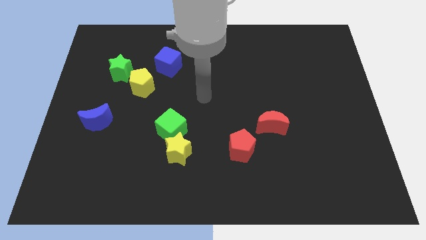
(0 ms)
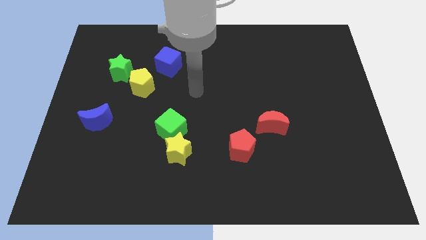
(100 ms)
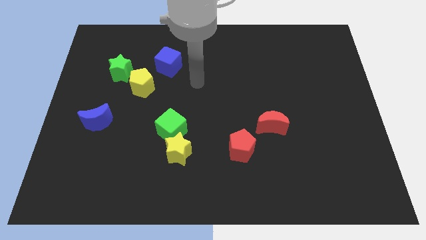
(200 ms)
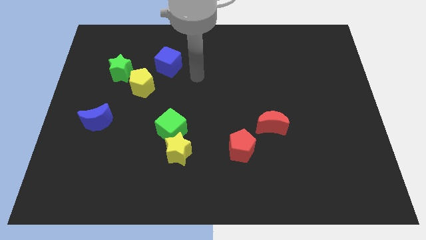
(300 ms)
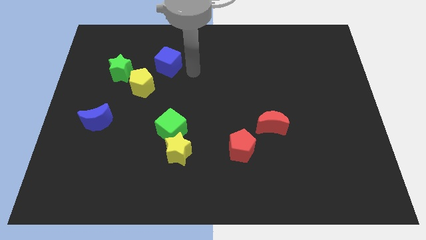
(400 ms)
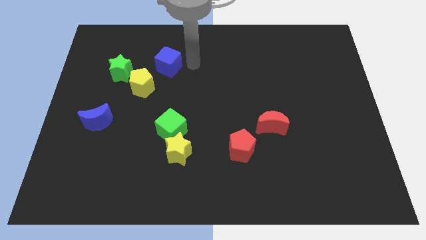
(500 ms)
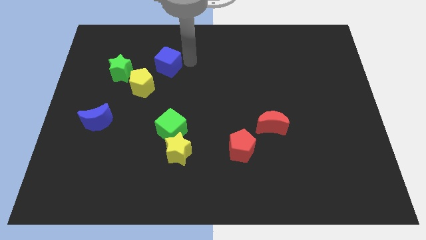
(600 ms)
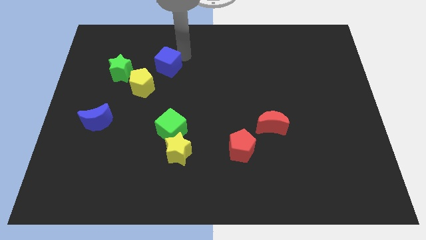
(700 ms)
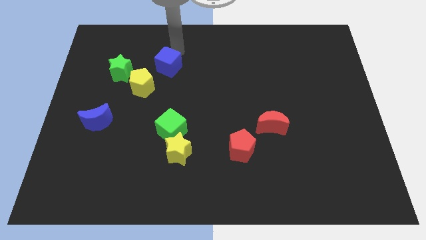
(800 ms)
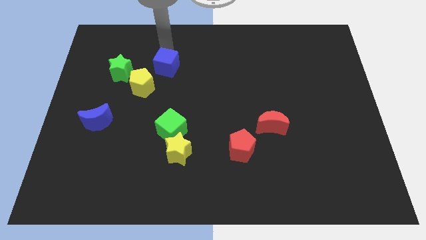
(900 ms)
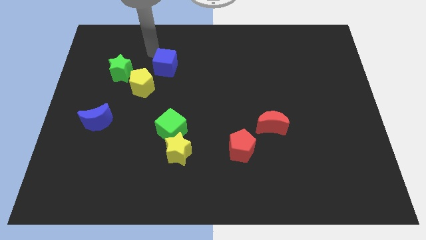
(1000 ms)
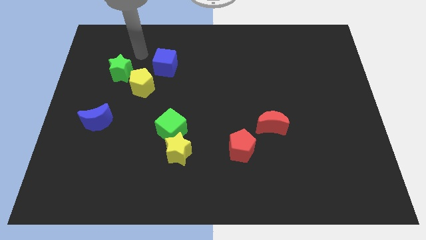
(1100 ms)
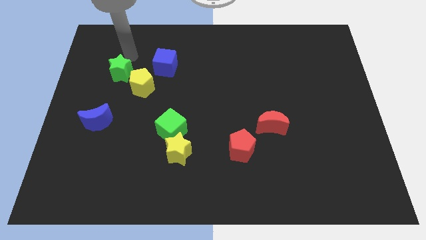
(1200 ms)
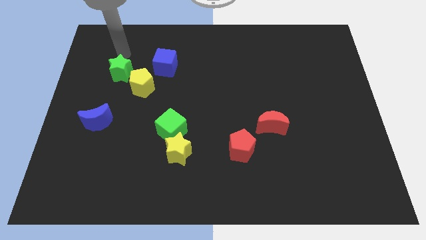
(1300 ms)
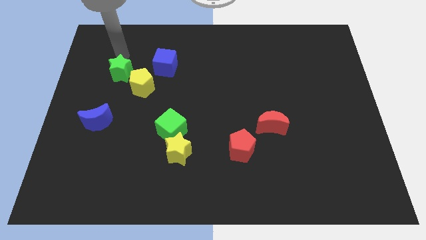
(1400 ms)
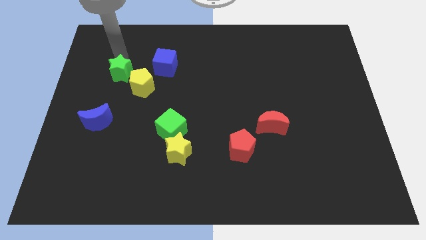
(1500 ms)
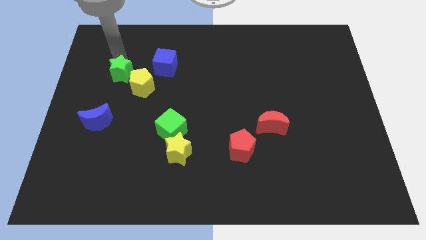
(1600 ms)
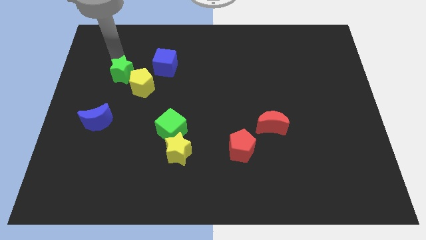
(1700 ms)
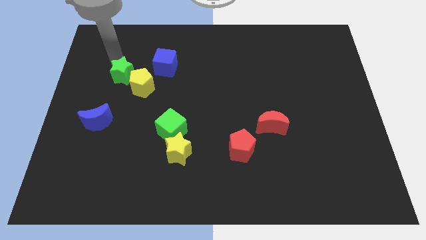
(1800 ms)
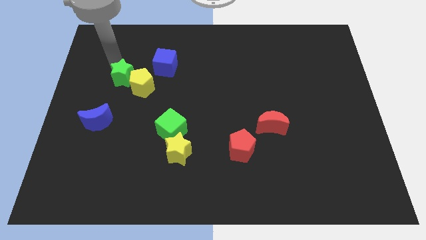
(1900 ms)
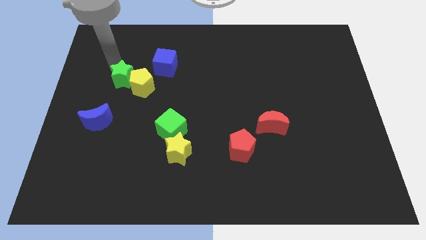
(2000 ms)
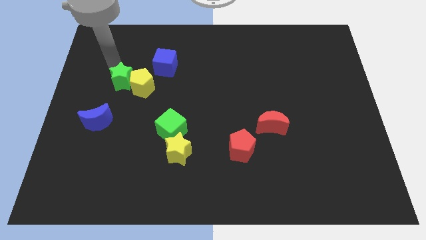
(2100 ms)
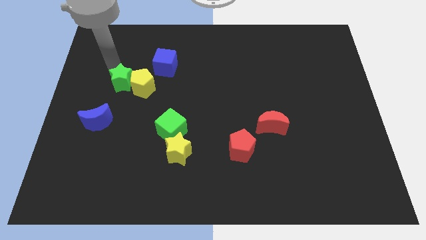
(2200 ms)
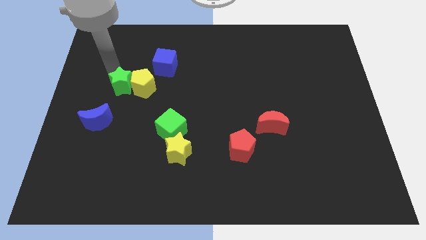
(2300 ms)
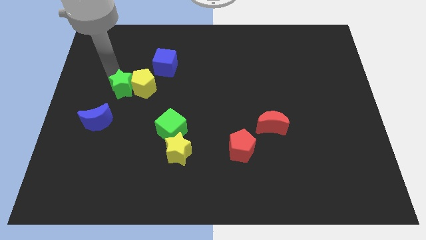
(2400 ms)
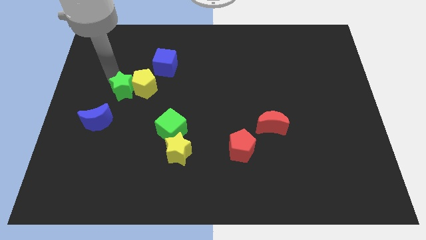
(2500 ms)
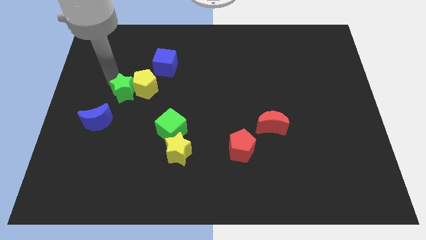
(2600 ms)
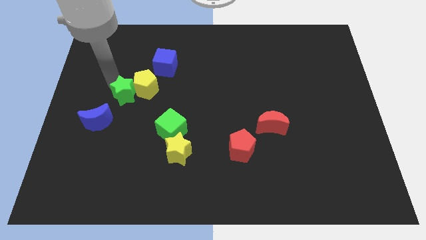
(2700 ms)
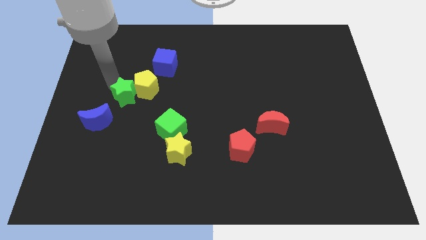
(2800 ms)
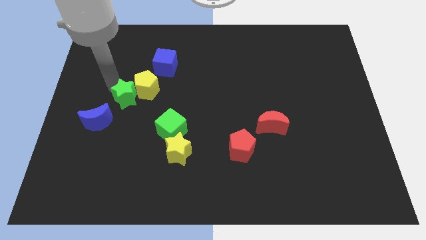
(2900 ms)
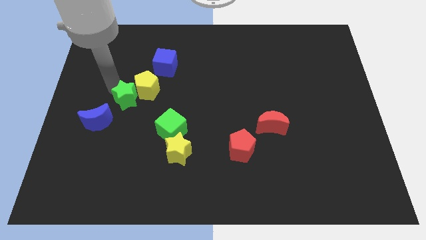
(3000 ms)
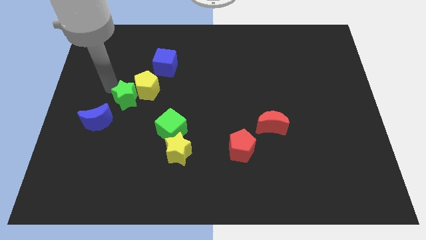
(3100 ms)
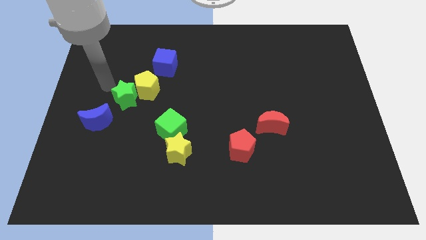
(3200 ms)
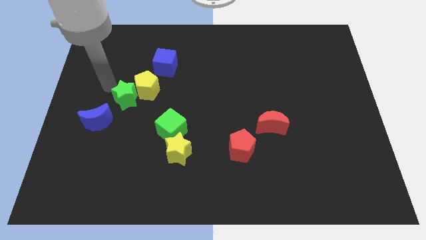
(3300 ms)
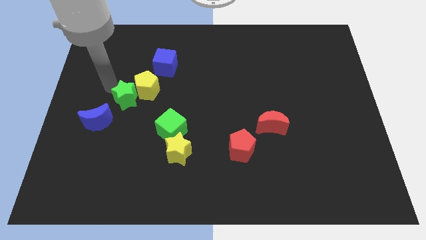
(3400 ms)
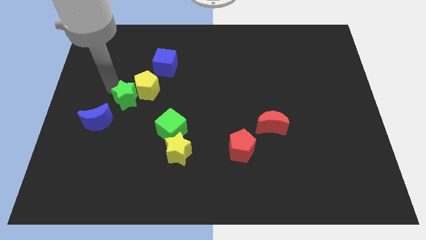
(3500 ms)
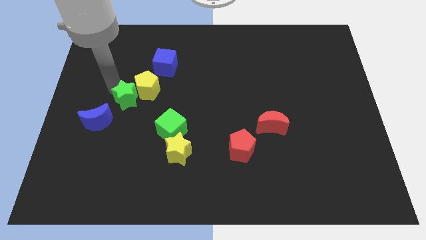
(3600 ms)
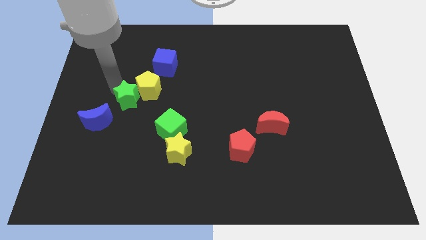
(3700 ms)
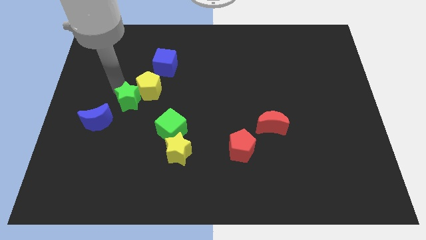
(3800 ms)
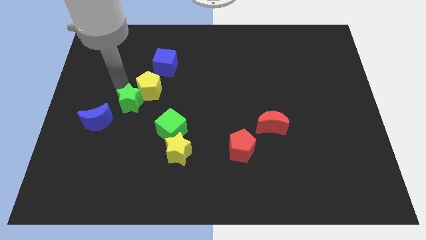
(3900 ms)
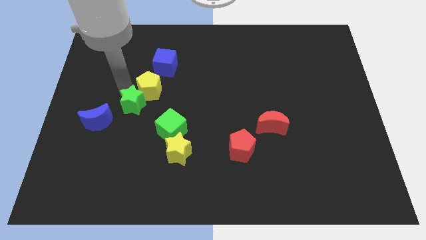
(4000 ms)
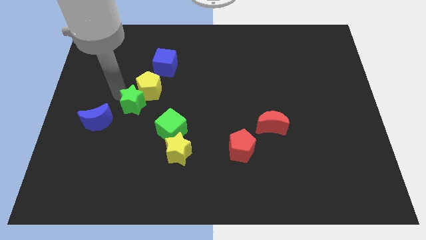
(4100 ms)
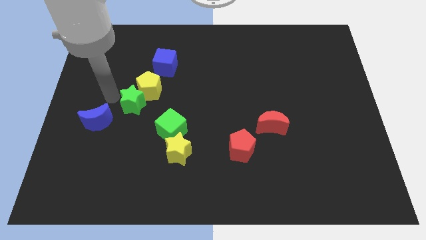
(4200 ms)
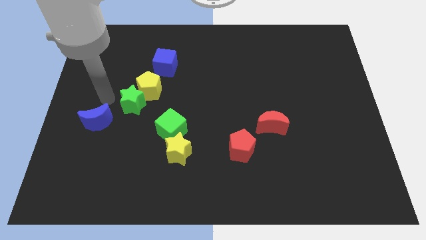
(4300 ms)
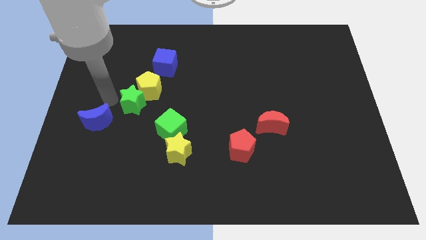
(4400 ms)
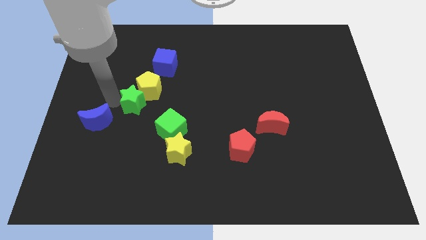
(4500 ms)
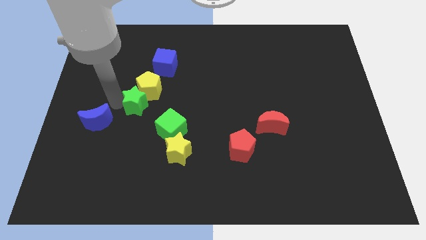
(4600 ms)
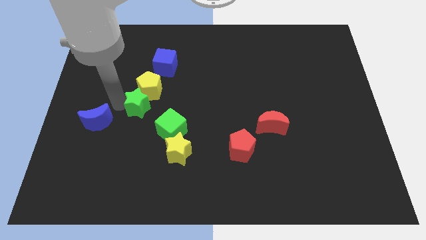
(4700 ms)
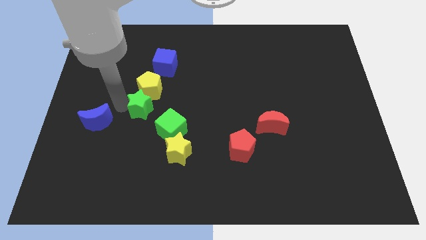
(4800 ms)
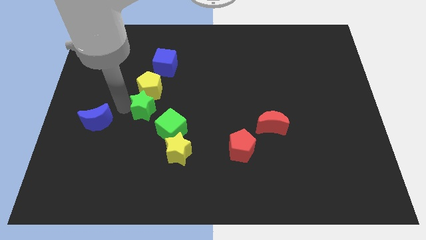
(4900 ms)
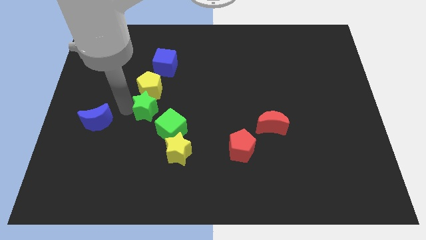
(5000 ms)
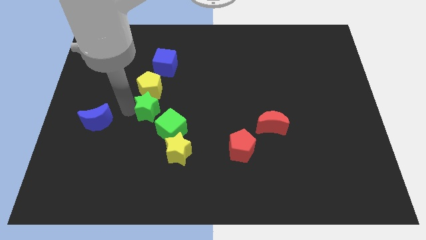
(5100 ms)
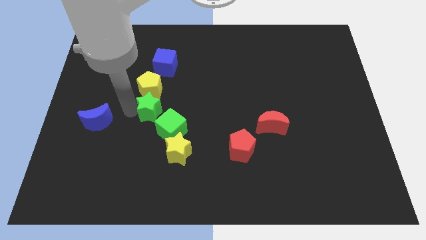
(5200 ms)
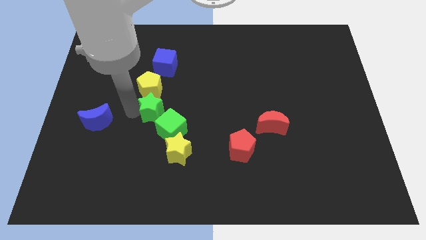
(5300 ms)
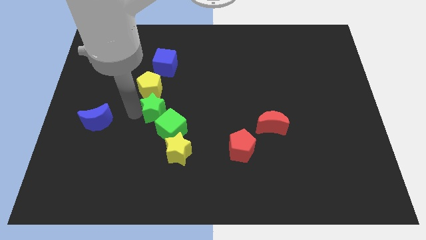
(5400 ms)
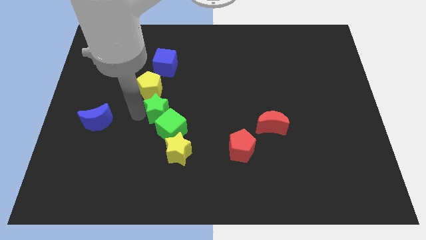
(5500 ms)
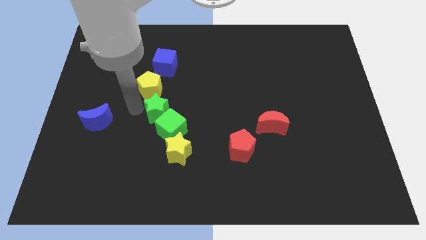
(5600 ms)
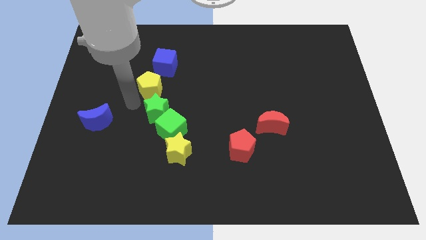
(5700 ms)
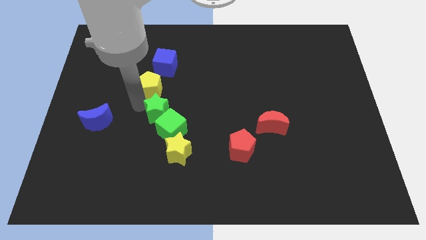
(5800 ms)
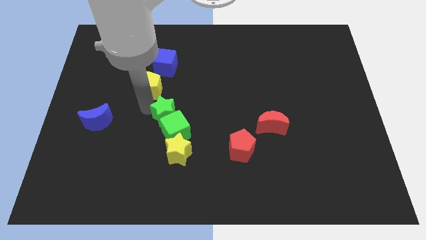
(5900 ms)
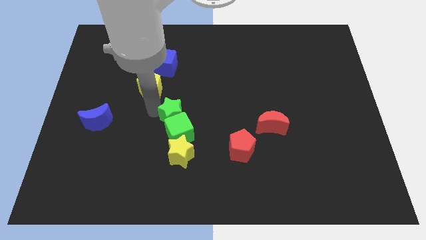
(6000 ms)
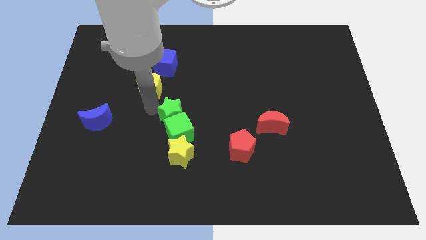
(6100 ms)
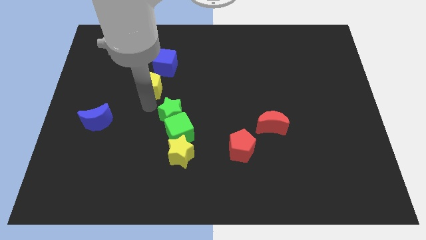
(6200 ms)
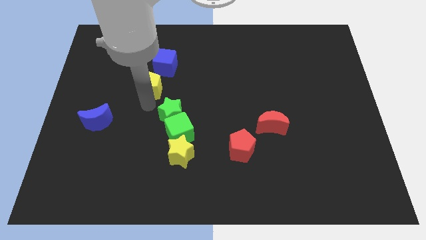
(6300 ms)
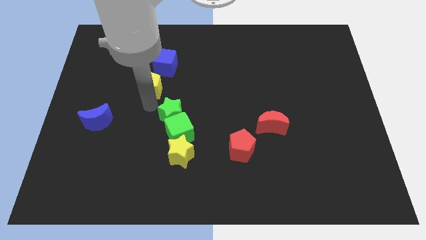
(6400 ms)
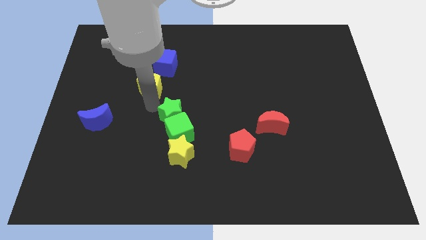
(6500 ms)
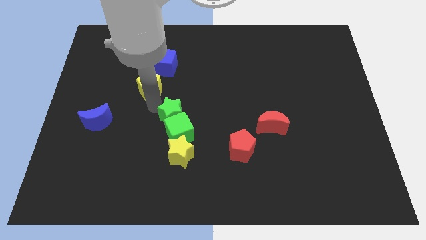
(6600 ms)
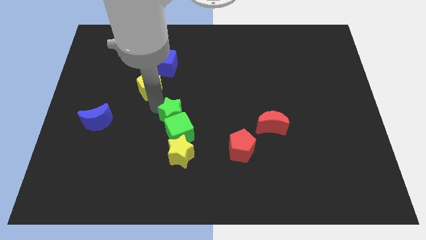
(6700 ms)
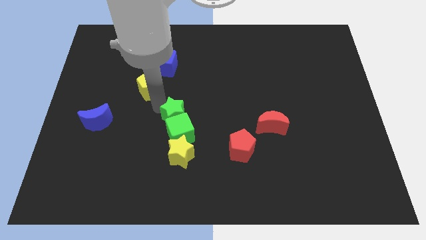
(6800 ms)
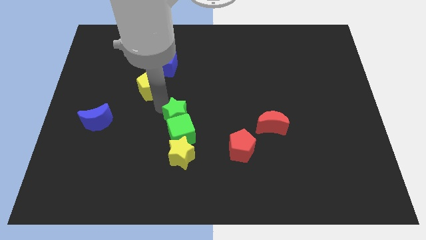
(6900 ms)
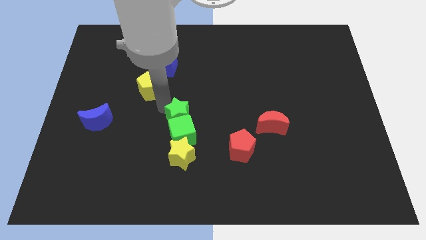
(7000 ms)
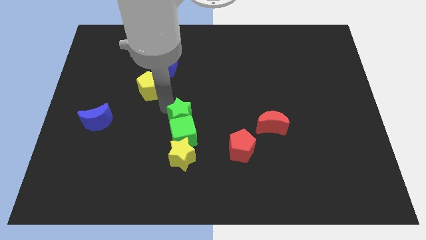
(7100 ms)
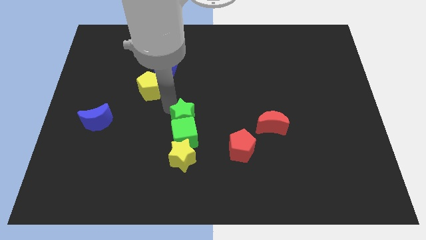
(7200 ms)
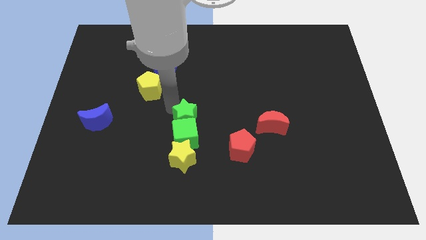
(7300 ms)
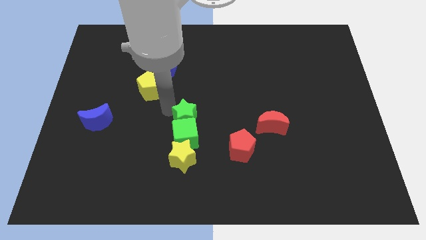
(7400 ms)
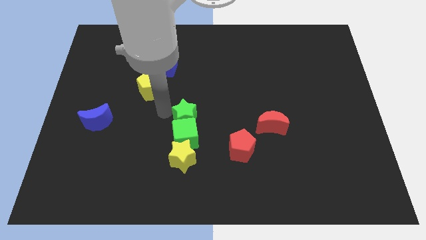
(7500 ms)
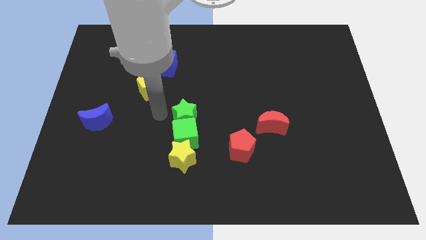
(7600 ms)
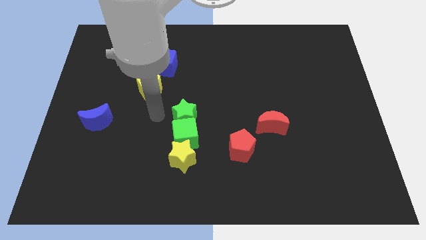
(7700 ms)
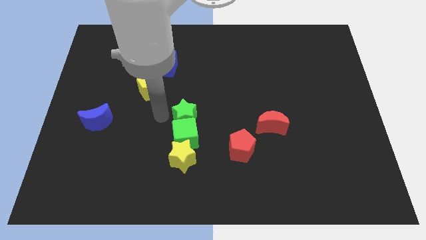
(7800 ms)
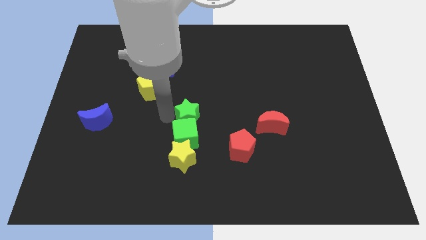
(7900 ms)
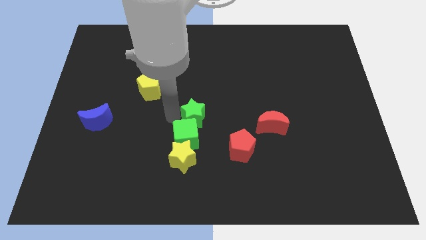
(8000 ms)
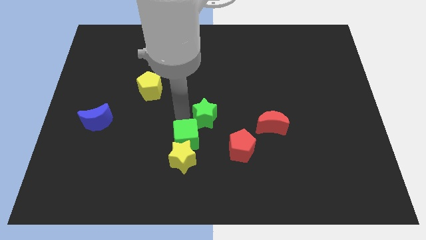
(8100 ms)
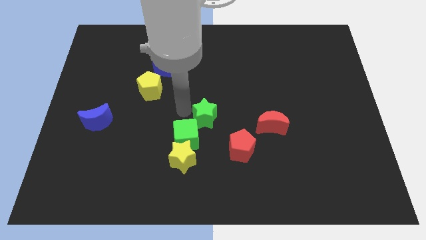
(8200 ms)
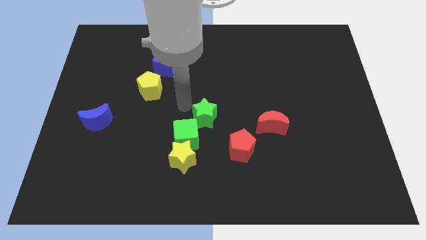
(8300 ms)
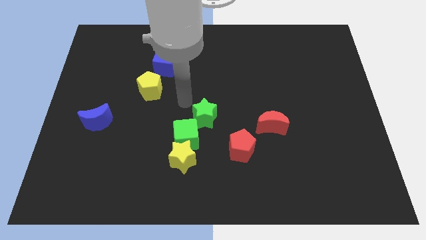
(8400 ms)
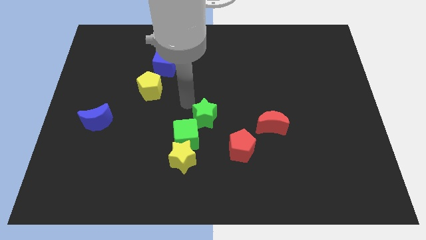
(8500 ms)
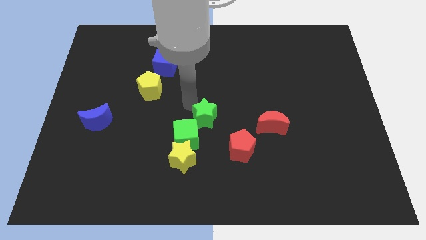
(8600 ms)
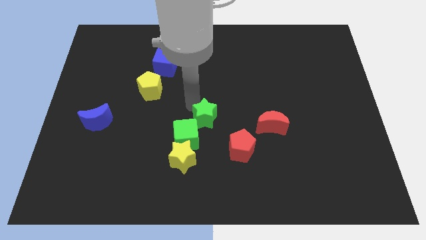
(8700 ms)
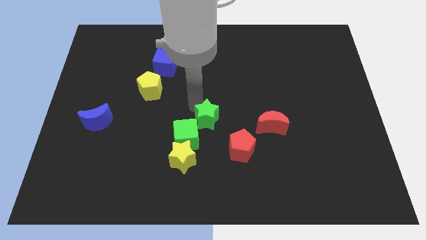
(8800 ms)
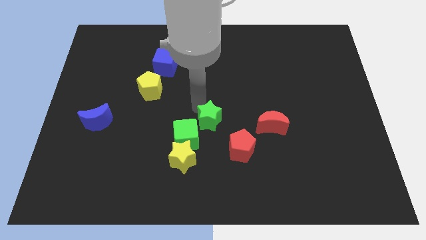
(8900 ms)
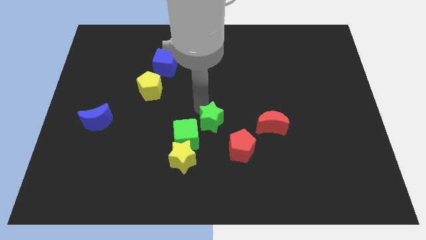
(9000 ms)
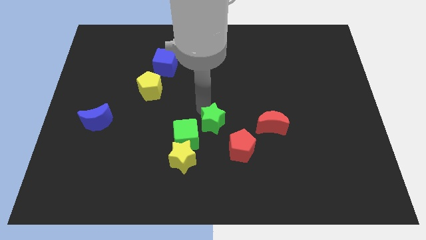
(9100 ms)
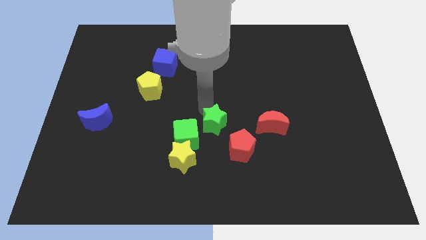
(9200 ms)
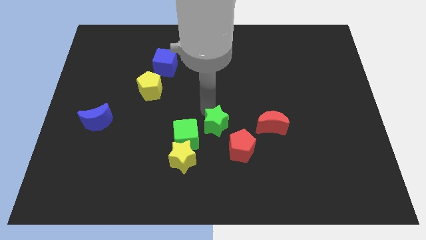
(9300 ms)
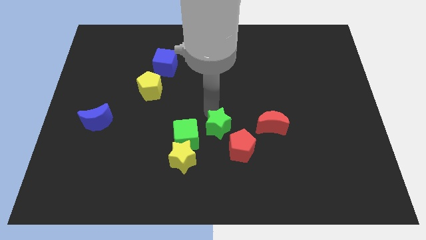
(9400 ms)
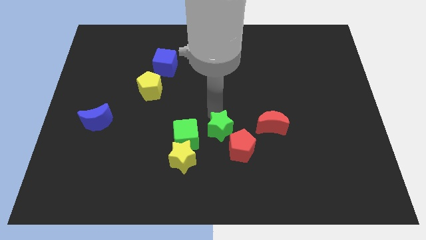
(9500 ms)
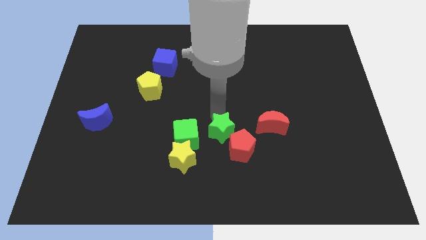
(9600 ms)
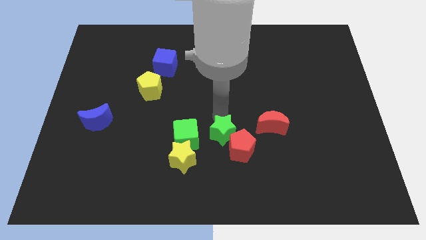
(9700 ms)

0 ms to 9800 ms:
move the green star close to the red pentagon
